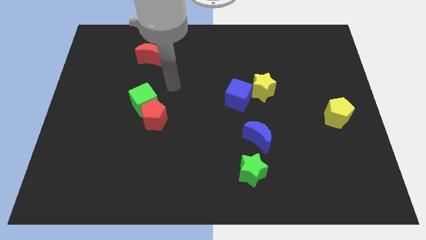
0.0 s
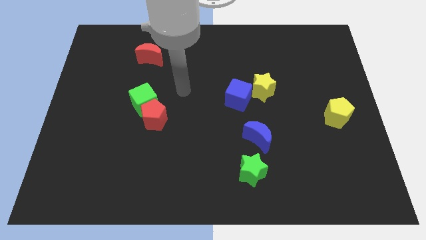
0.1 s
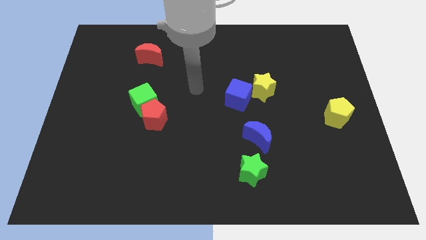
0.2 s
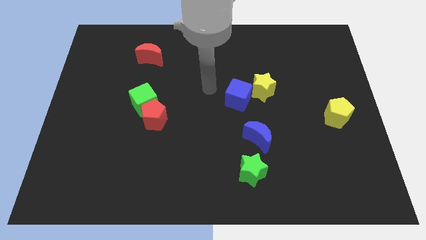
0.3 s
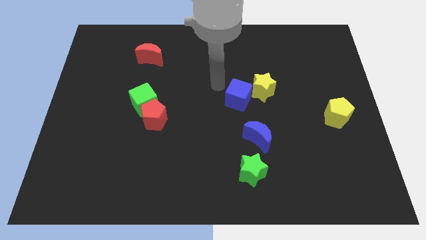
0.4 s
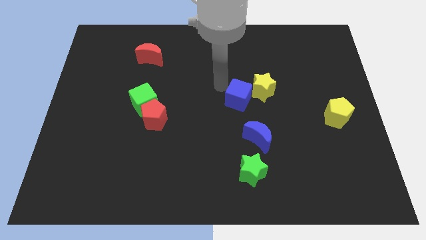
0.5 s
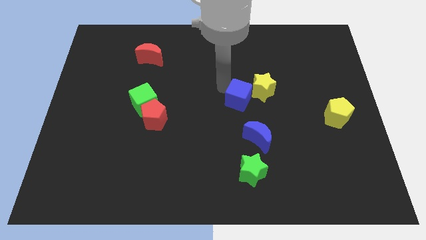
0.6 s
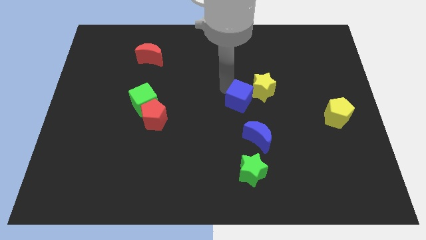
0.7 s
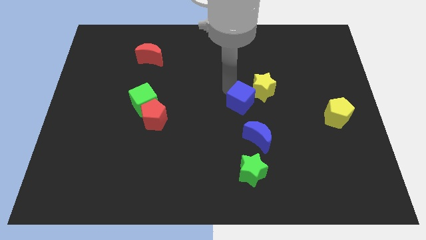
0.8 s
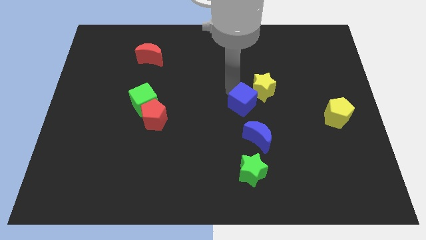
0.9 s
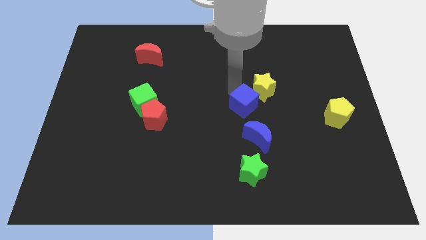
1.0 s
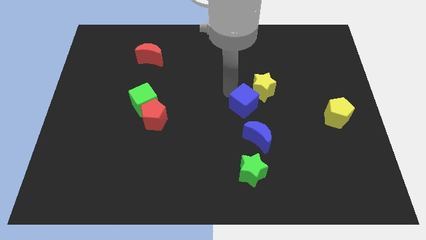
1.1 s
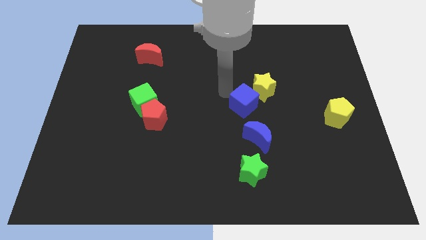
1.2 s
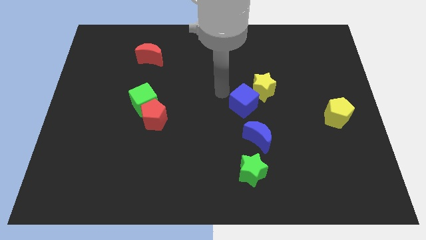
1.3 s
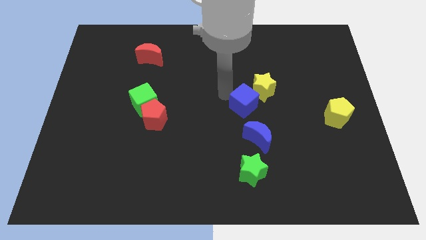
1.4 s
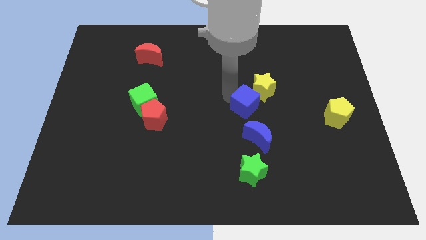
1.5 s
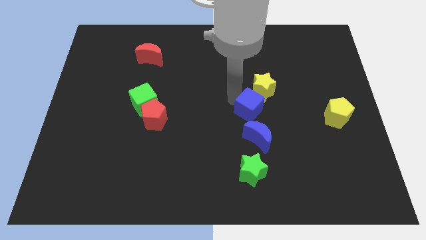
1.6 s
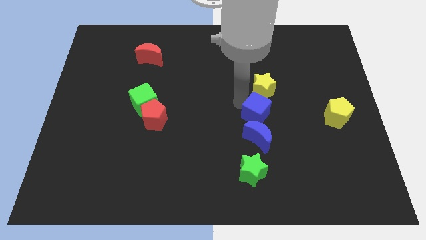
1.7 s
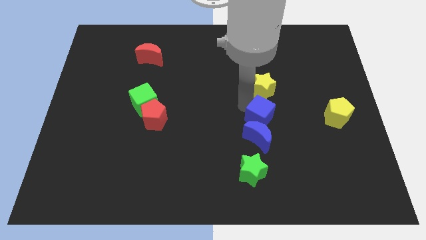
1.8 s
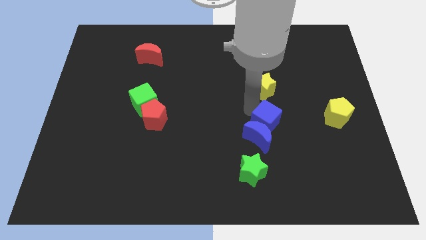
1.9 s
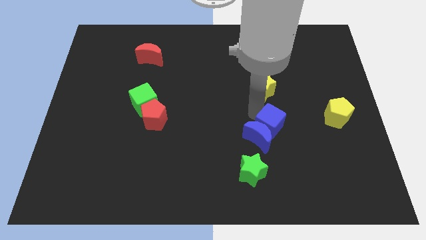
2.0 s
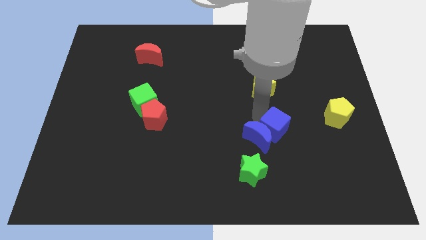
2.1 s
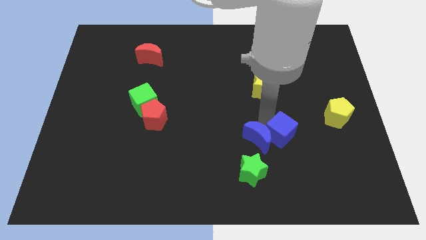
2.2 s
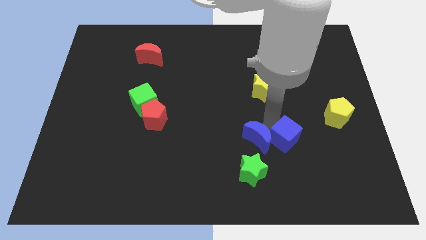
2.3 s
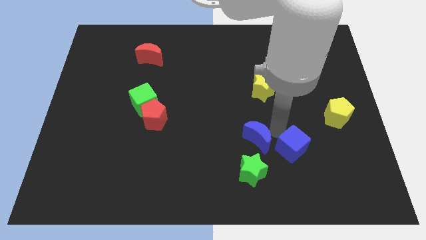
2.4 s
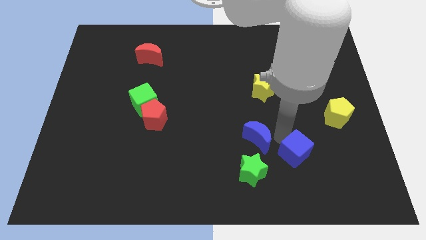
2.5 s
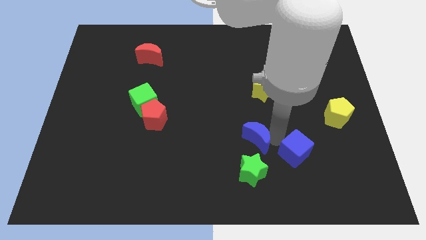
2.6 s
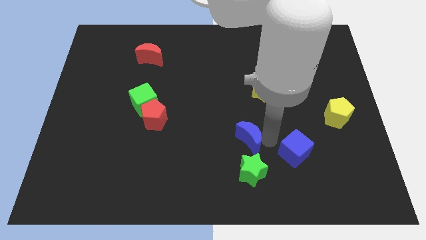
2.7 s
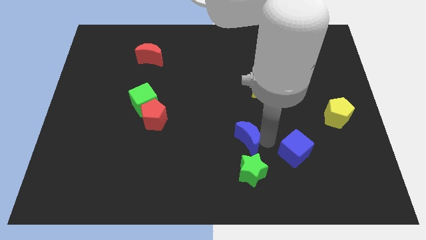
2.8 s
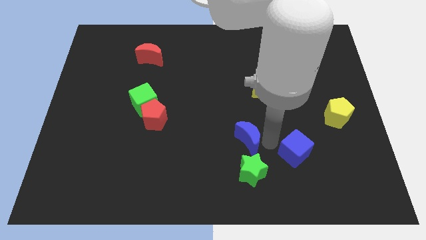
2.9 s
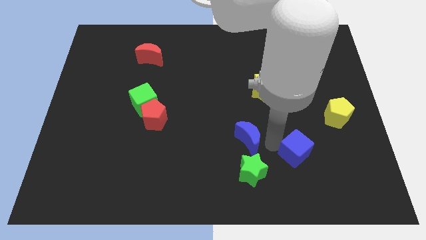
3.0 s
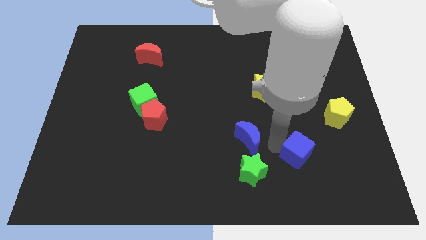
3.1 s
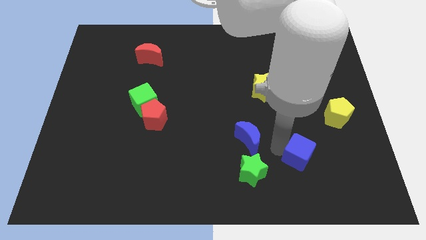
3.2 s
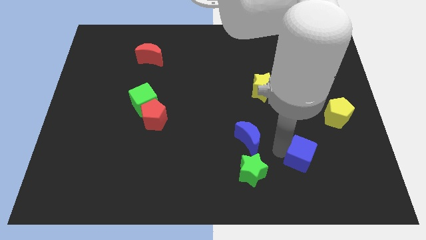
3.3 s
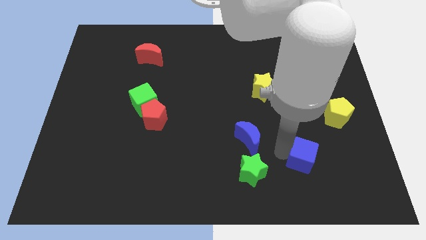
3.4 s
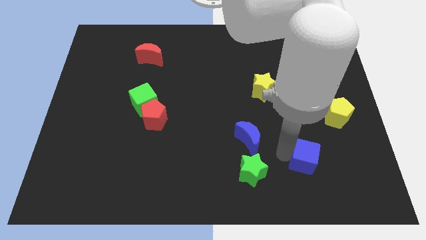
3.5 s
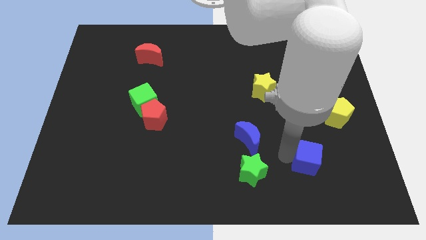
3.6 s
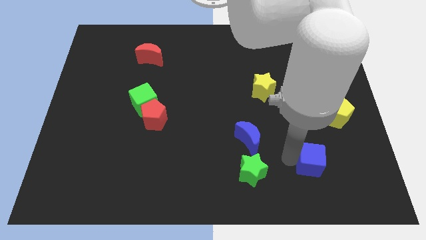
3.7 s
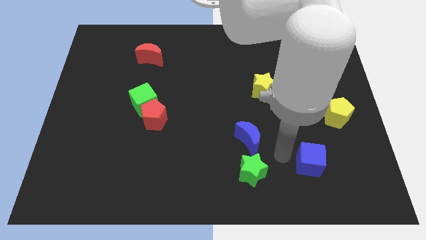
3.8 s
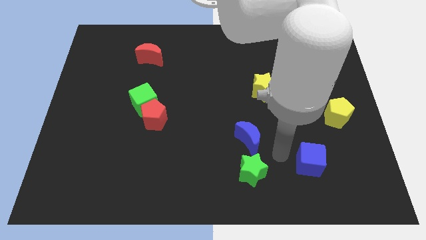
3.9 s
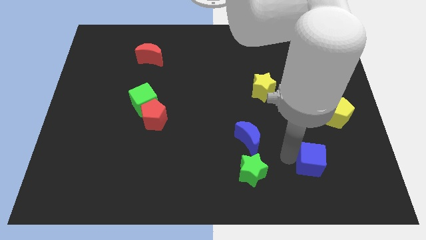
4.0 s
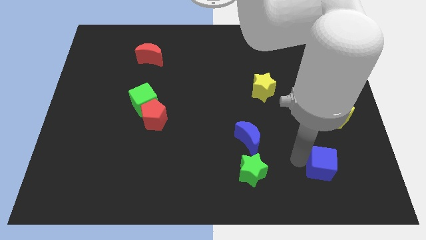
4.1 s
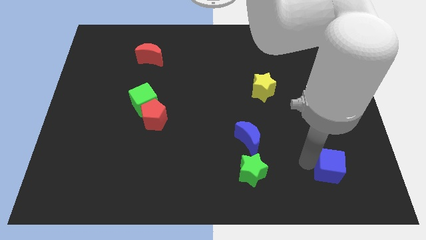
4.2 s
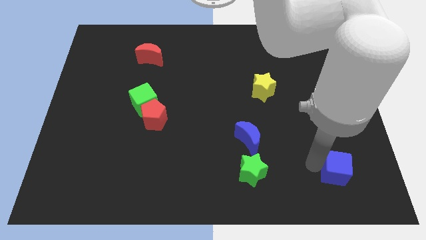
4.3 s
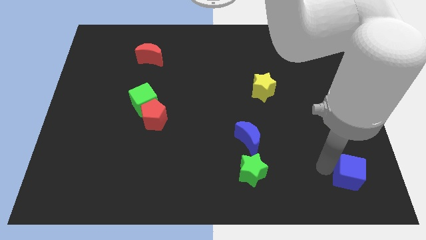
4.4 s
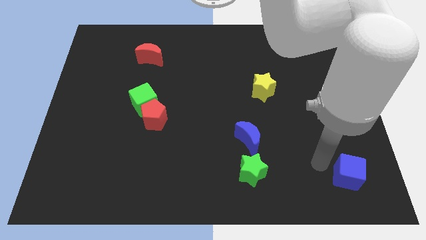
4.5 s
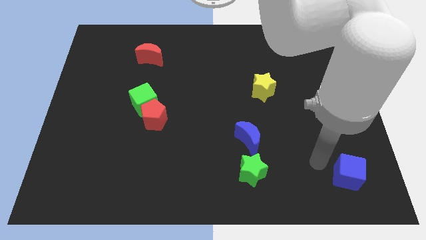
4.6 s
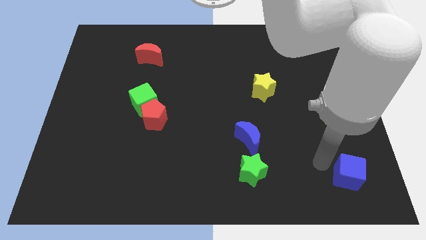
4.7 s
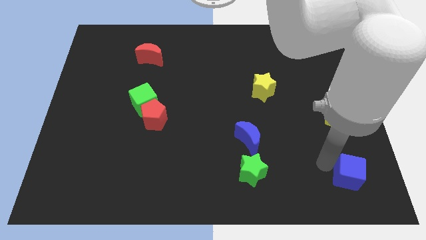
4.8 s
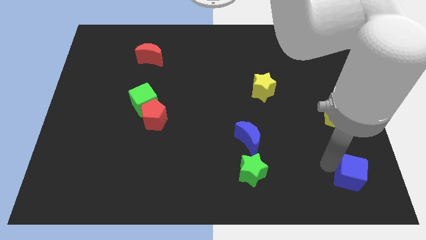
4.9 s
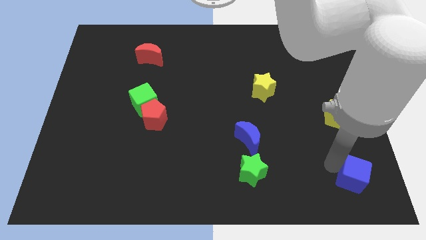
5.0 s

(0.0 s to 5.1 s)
put the blue cube to the bottom right corner

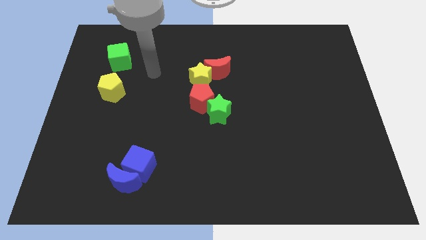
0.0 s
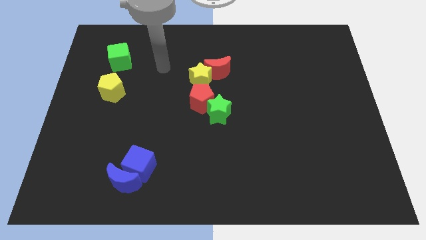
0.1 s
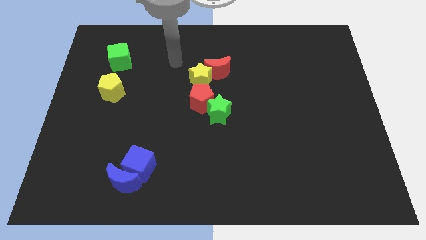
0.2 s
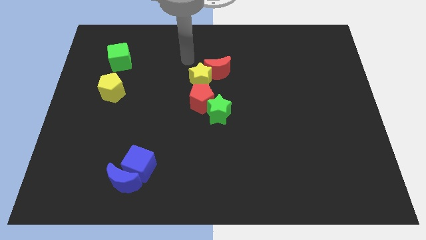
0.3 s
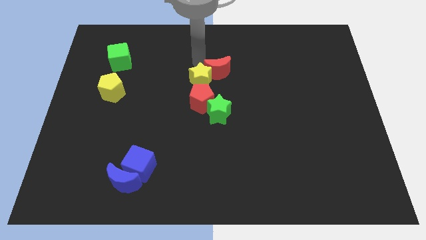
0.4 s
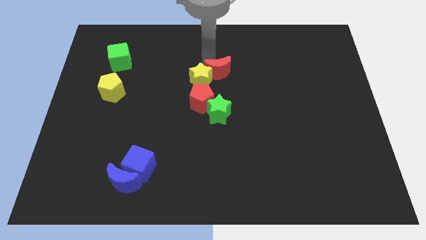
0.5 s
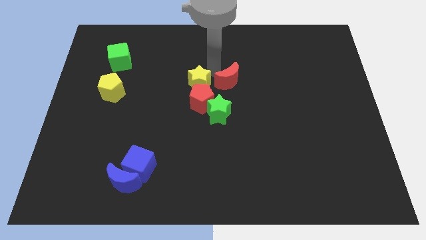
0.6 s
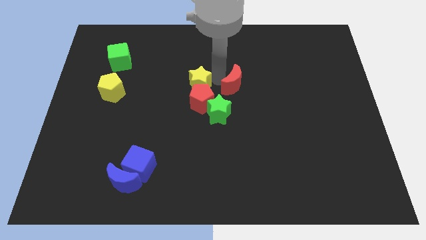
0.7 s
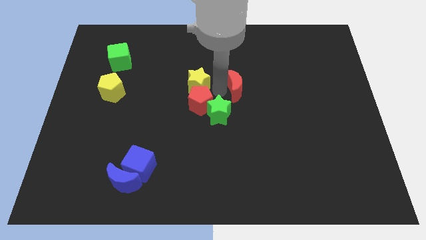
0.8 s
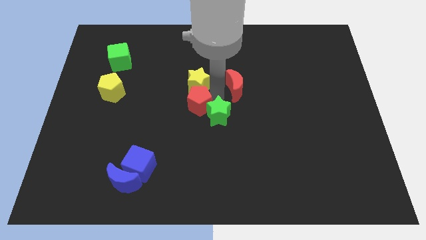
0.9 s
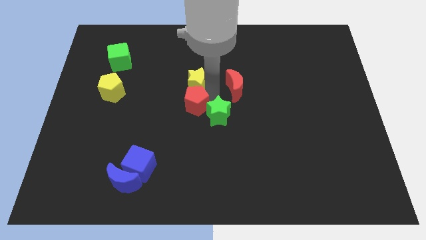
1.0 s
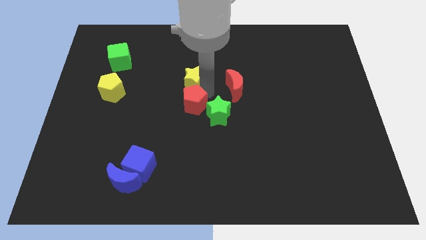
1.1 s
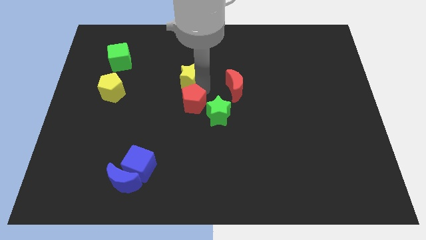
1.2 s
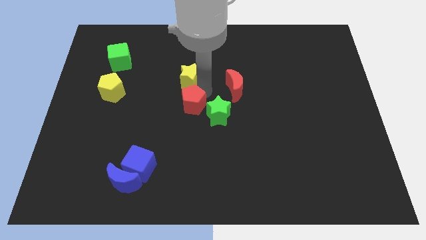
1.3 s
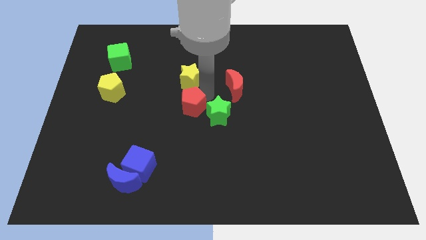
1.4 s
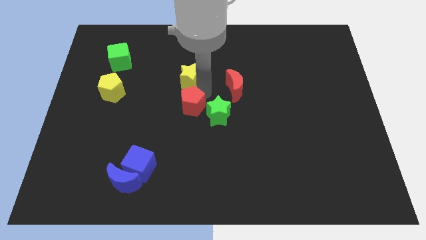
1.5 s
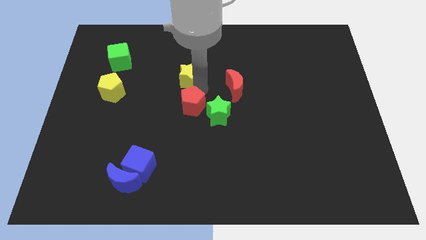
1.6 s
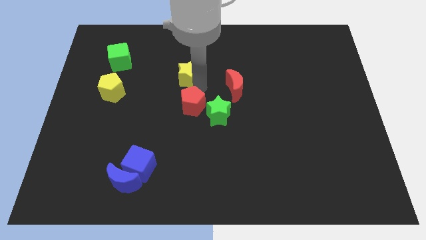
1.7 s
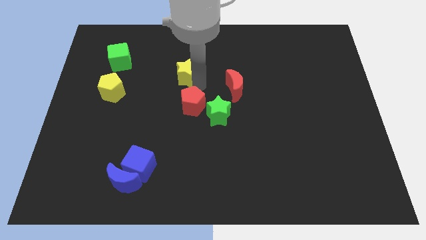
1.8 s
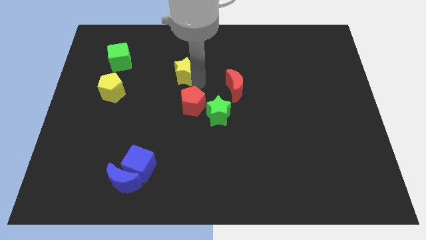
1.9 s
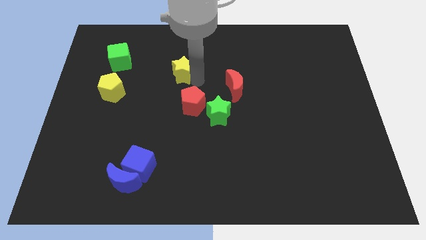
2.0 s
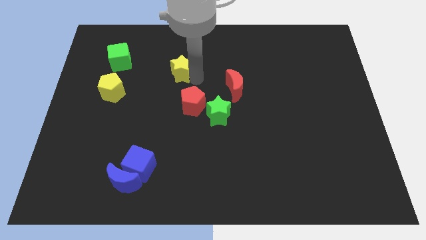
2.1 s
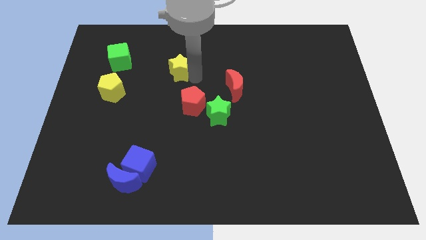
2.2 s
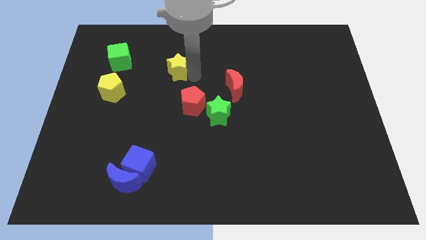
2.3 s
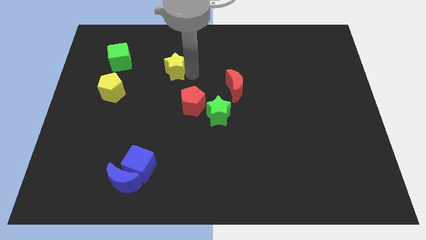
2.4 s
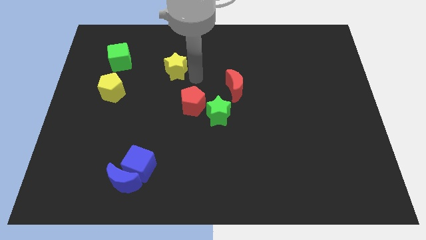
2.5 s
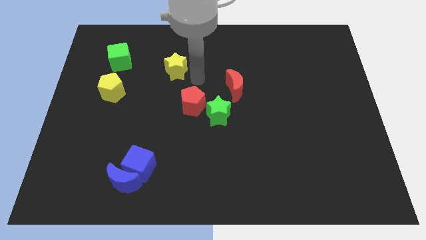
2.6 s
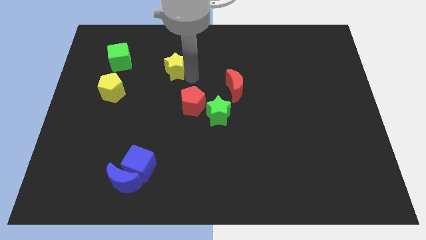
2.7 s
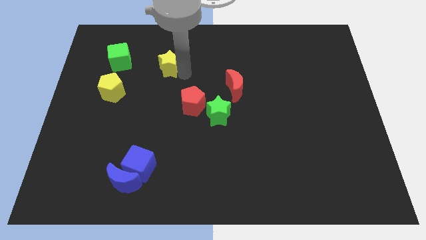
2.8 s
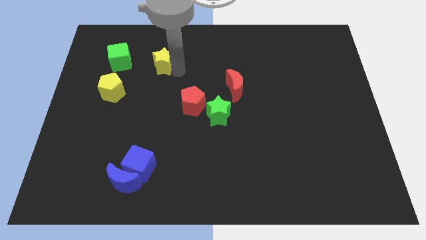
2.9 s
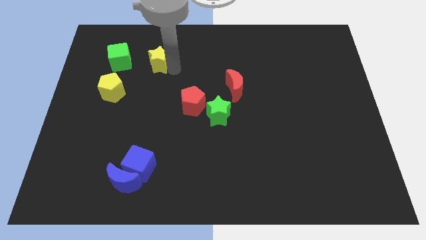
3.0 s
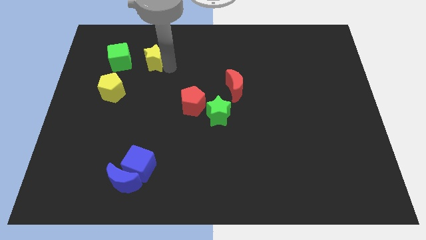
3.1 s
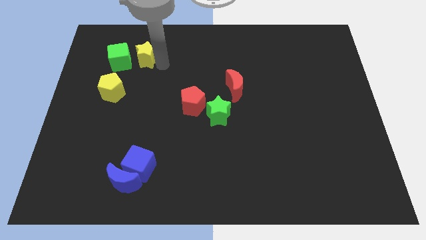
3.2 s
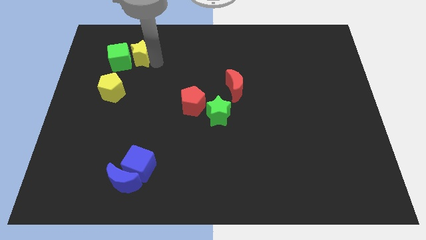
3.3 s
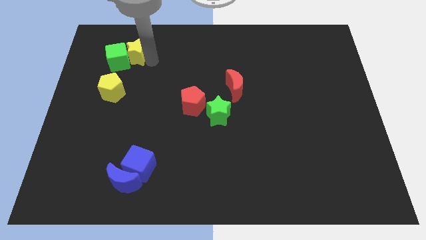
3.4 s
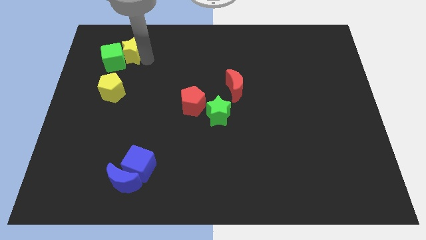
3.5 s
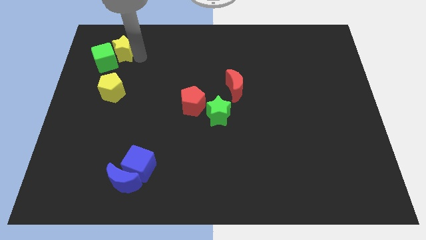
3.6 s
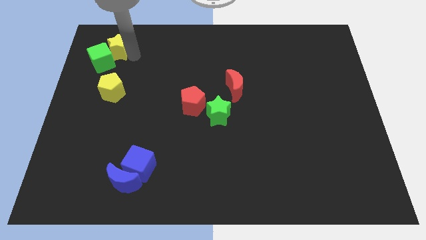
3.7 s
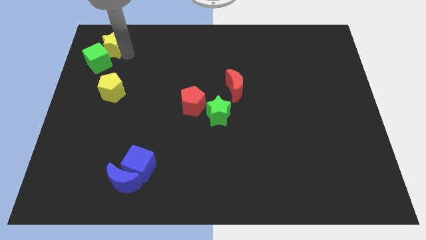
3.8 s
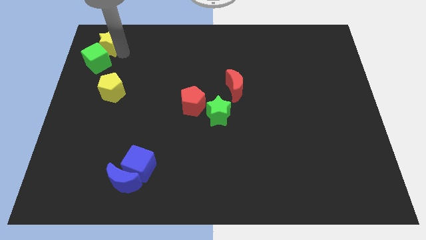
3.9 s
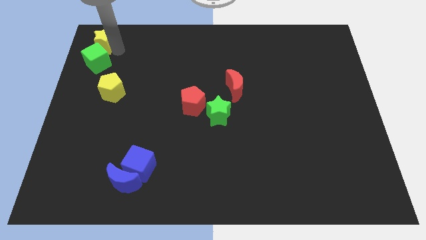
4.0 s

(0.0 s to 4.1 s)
move the yellow star to the top left
